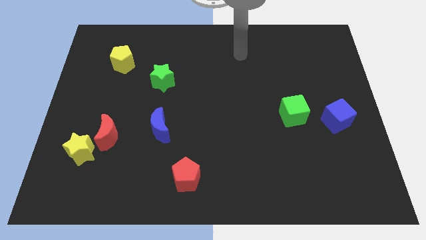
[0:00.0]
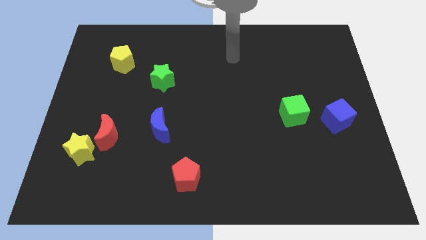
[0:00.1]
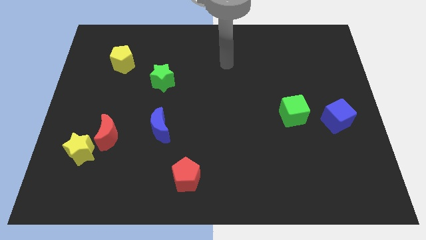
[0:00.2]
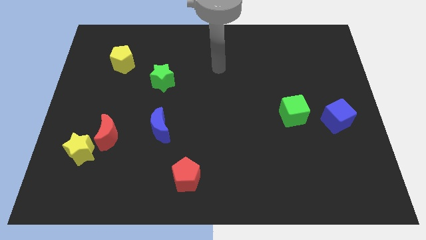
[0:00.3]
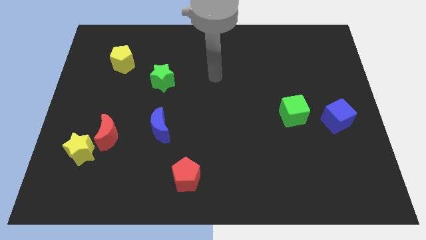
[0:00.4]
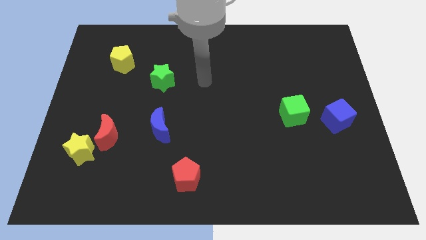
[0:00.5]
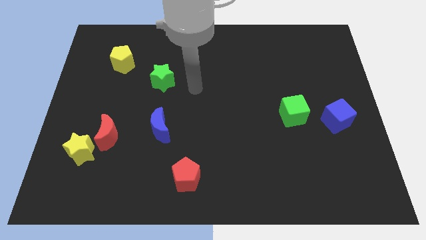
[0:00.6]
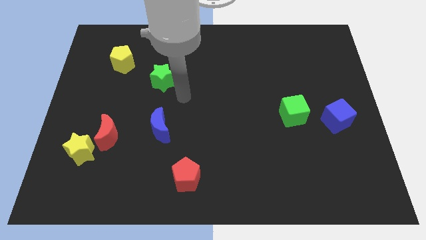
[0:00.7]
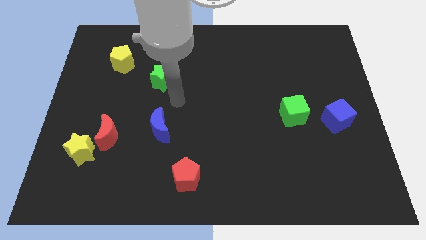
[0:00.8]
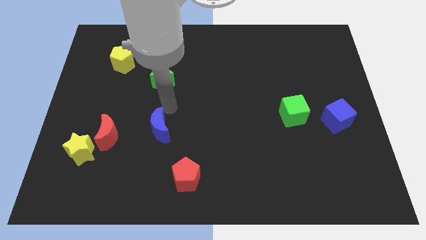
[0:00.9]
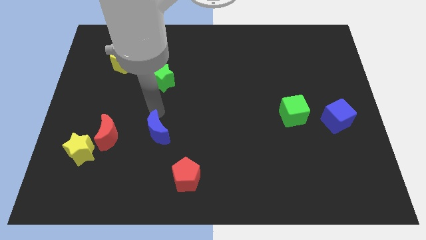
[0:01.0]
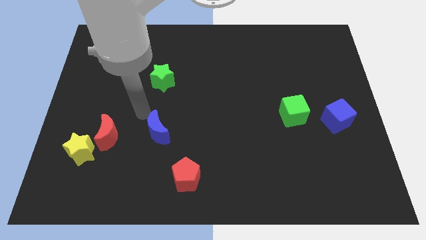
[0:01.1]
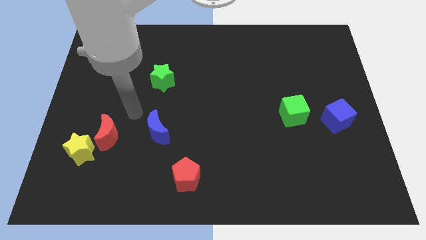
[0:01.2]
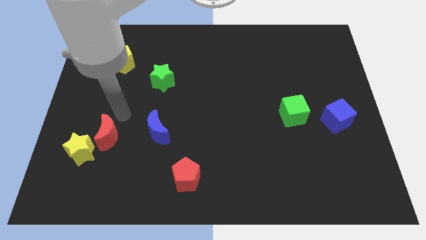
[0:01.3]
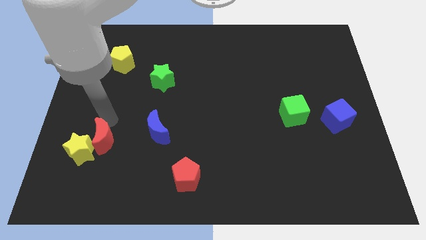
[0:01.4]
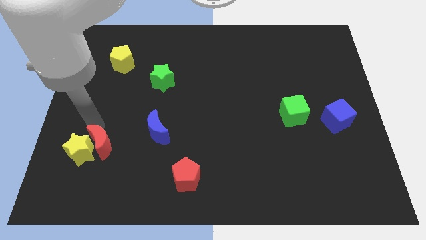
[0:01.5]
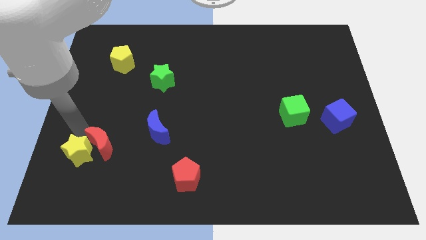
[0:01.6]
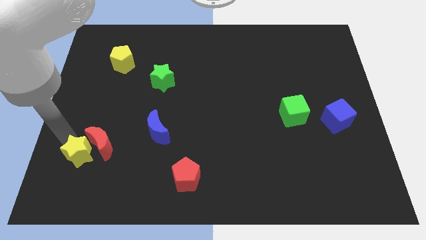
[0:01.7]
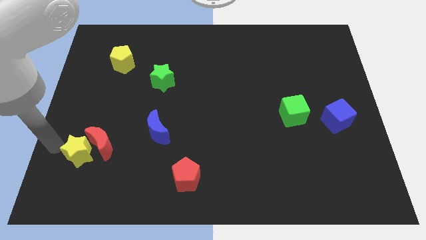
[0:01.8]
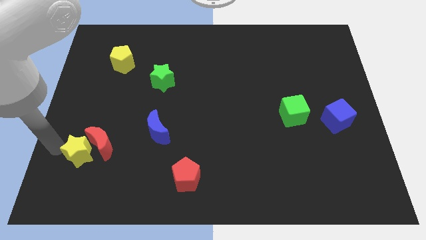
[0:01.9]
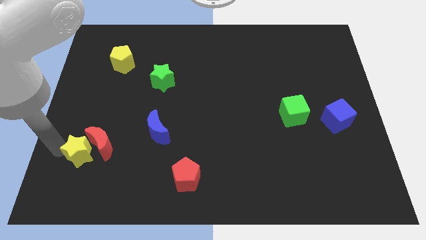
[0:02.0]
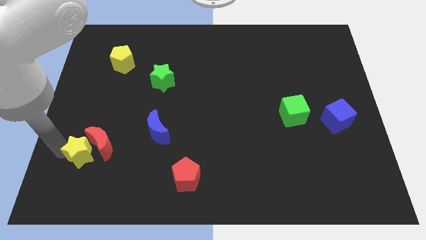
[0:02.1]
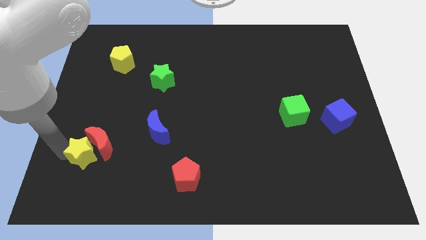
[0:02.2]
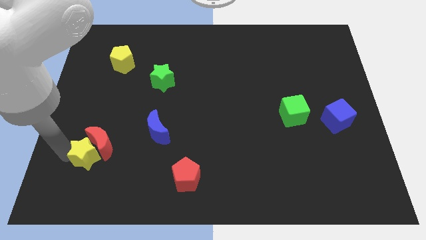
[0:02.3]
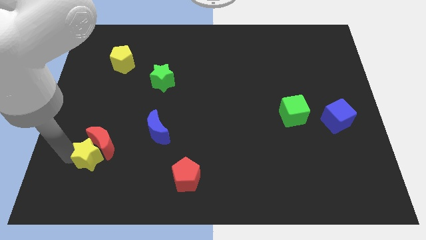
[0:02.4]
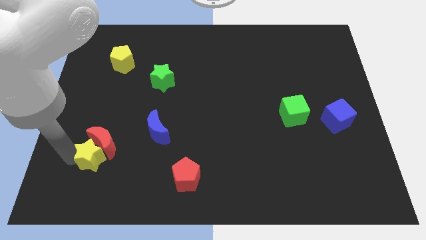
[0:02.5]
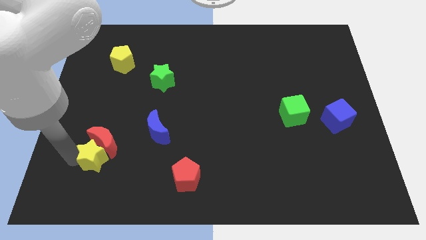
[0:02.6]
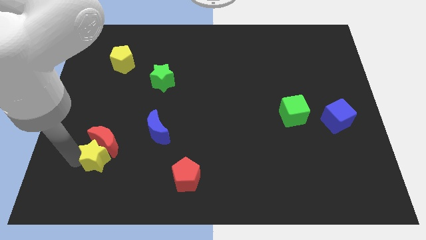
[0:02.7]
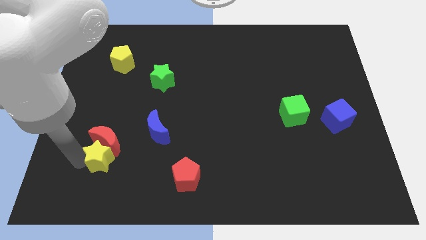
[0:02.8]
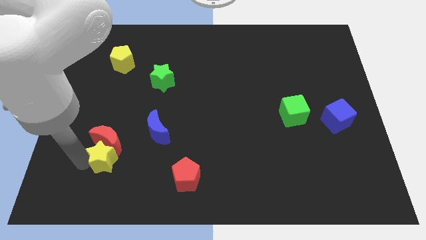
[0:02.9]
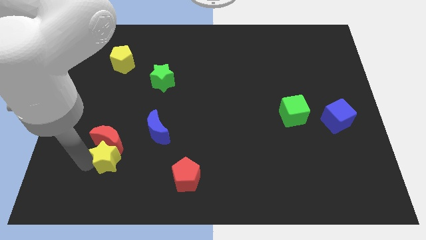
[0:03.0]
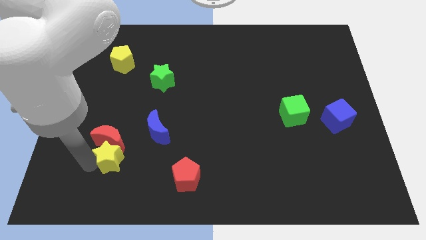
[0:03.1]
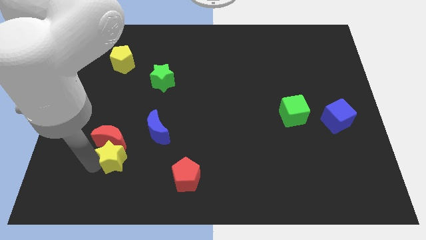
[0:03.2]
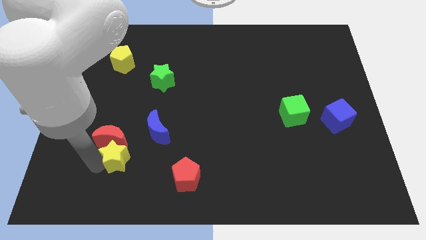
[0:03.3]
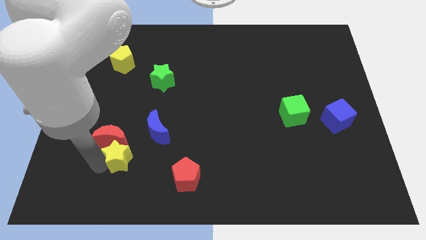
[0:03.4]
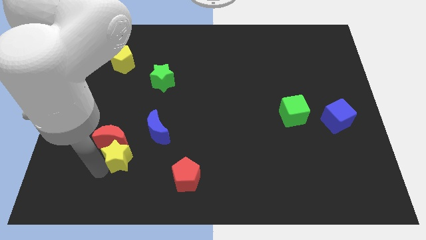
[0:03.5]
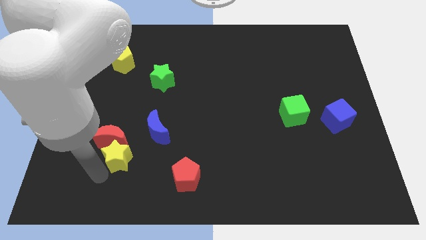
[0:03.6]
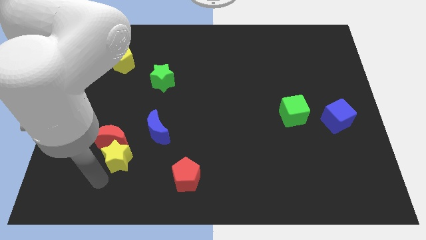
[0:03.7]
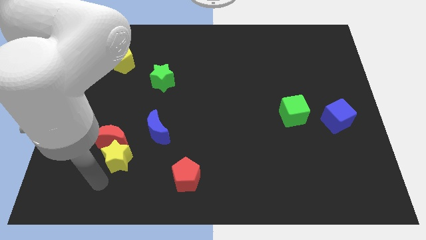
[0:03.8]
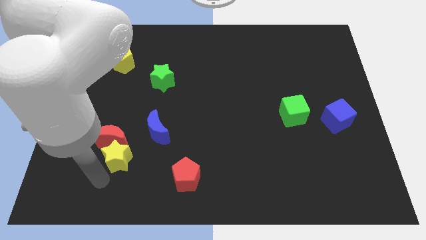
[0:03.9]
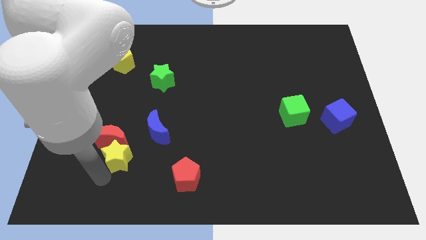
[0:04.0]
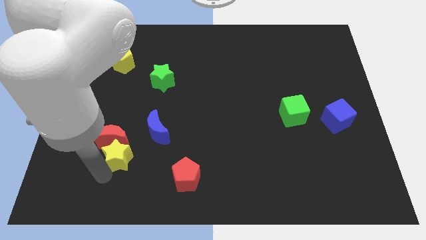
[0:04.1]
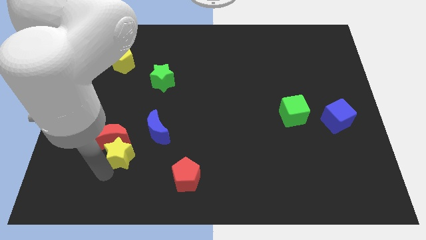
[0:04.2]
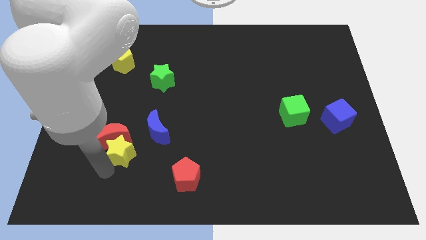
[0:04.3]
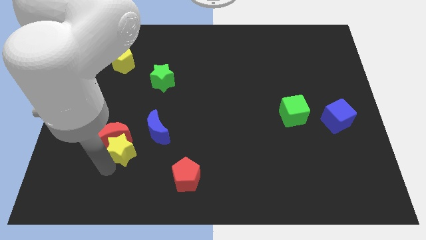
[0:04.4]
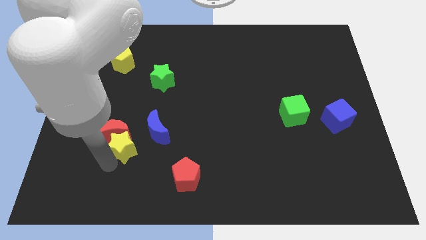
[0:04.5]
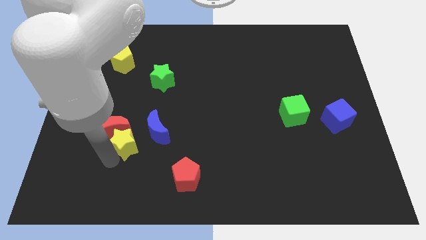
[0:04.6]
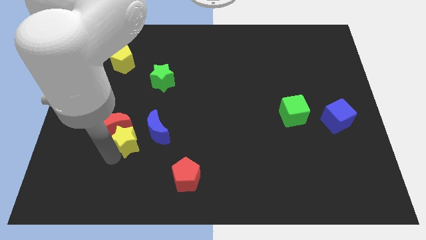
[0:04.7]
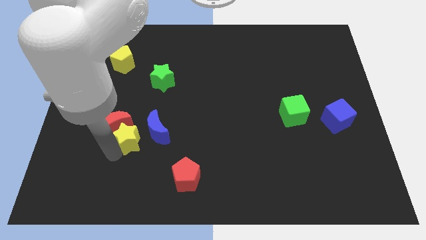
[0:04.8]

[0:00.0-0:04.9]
push the yellow star next to the blue moon

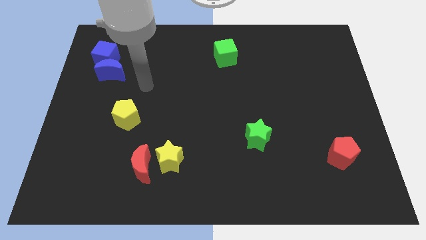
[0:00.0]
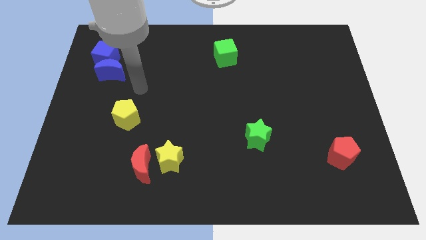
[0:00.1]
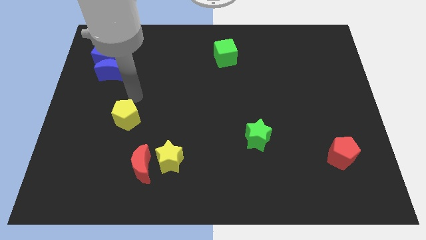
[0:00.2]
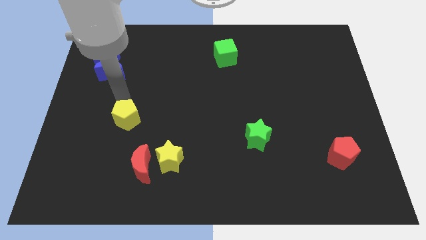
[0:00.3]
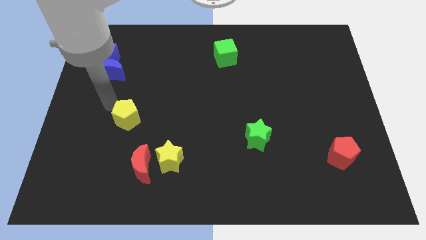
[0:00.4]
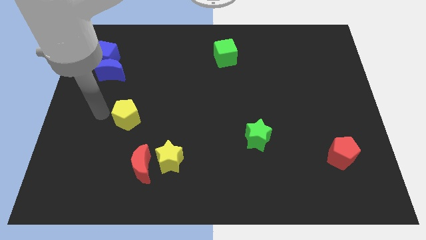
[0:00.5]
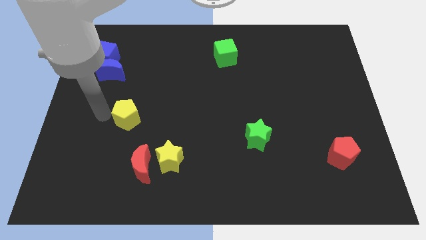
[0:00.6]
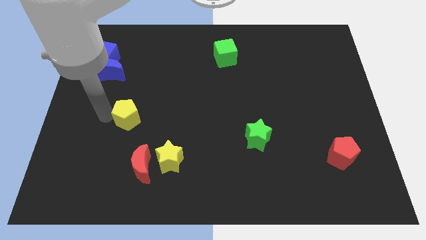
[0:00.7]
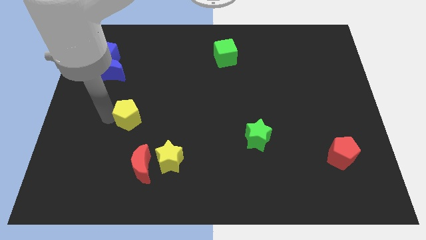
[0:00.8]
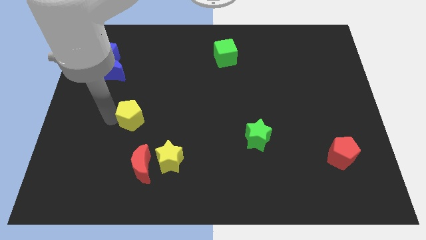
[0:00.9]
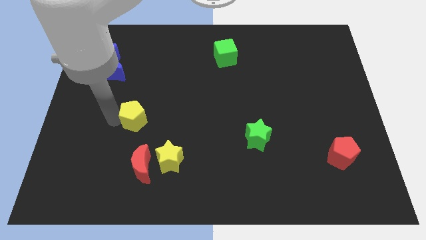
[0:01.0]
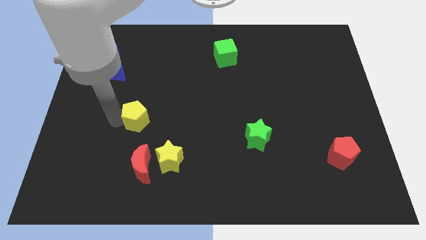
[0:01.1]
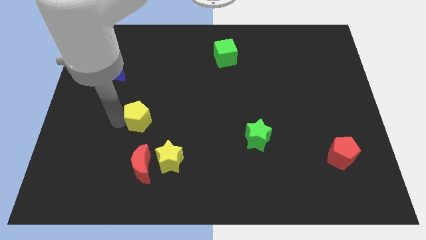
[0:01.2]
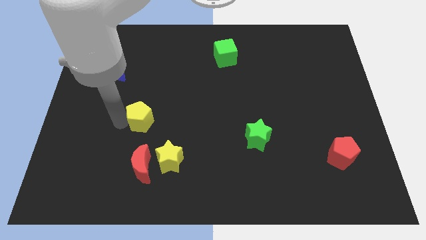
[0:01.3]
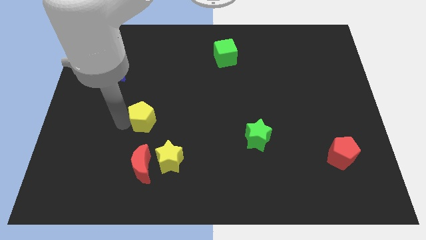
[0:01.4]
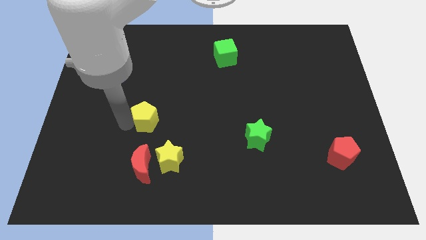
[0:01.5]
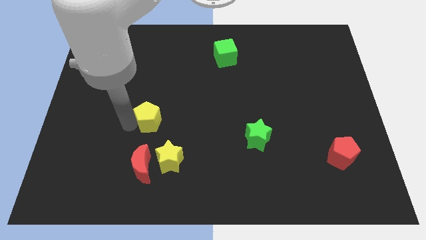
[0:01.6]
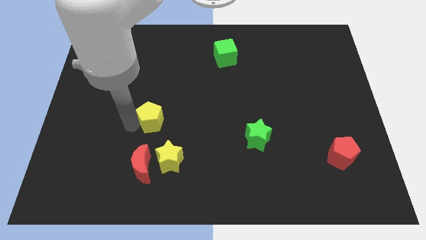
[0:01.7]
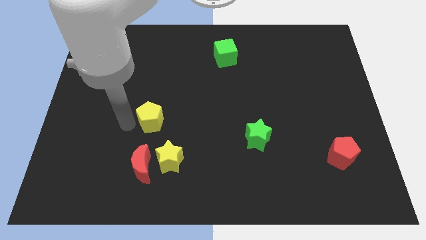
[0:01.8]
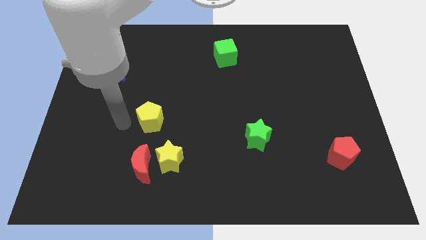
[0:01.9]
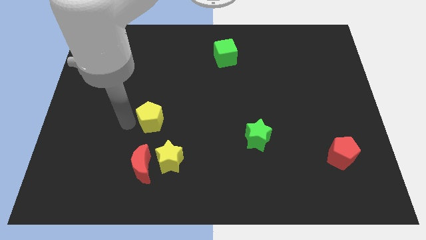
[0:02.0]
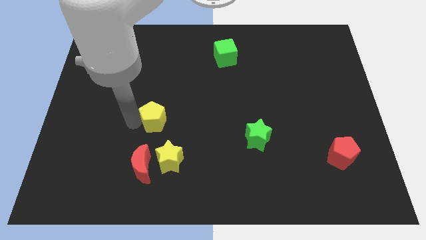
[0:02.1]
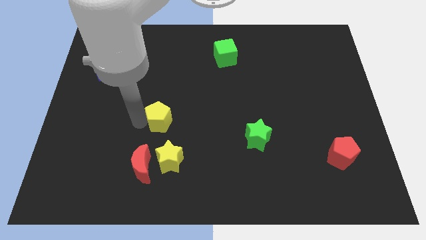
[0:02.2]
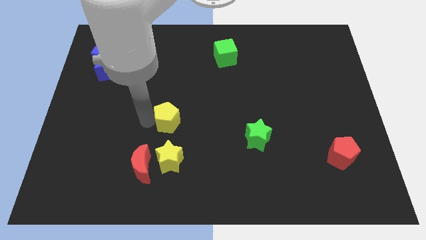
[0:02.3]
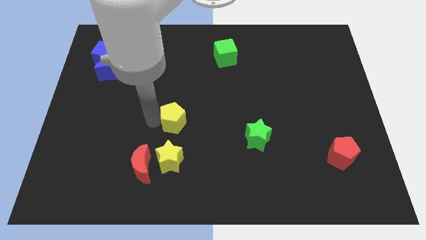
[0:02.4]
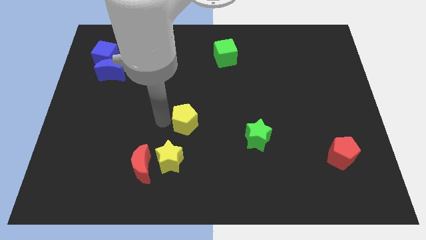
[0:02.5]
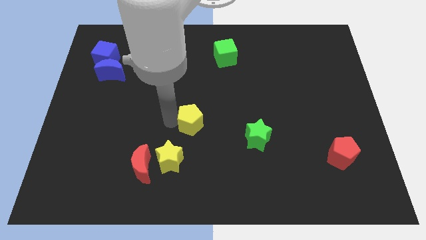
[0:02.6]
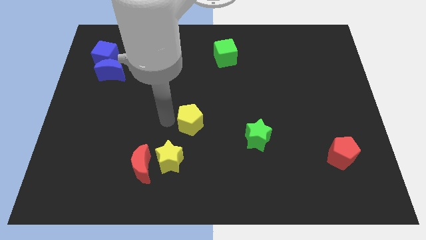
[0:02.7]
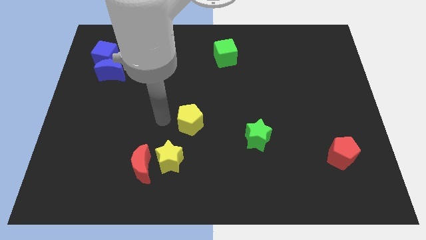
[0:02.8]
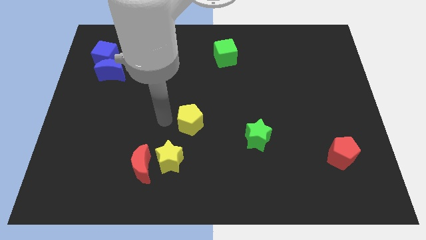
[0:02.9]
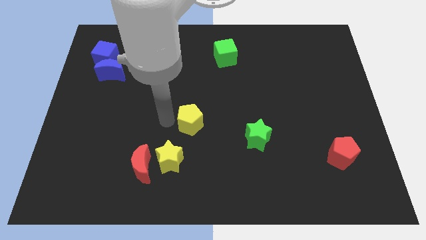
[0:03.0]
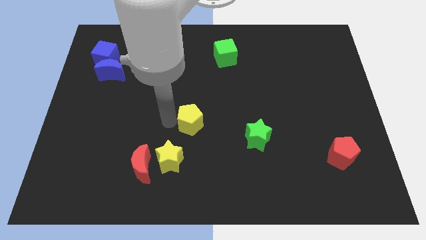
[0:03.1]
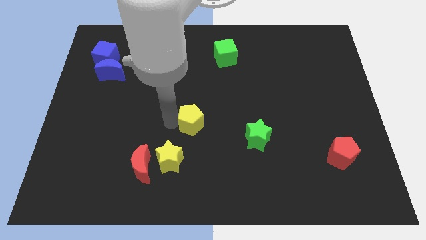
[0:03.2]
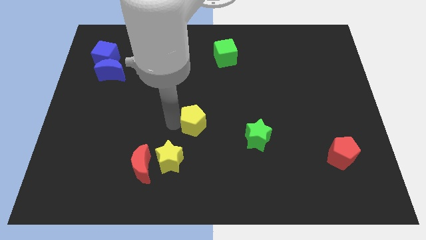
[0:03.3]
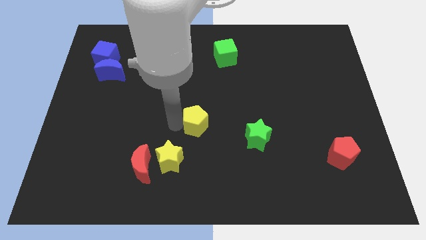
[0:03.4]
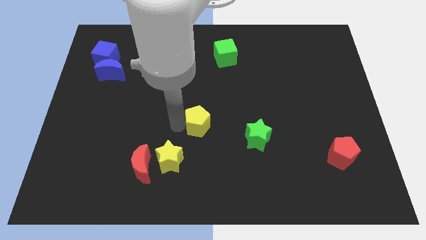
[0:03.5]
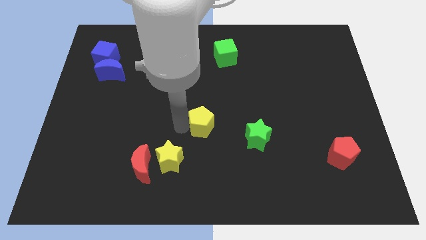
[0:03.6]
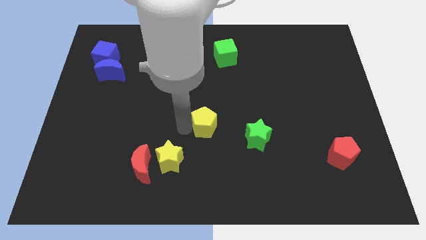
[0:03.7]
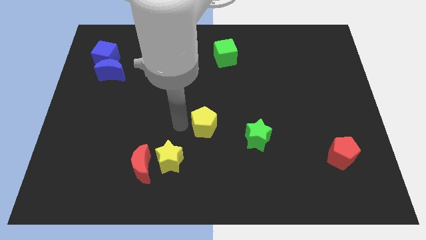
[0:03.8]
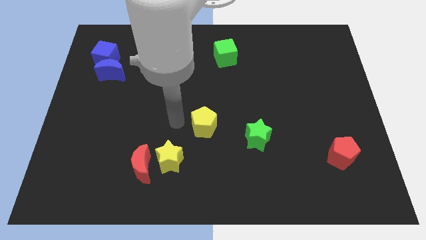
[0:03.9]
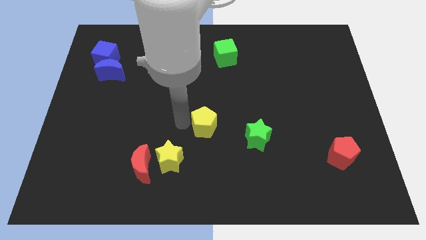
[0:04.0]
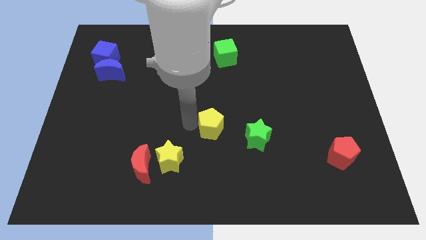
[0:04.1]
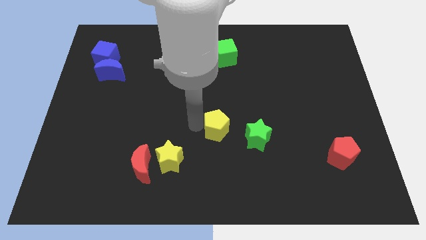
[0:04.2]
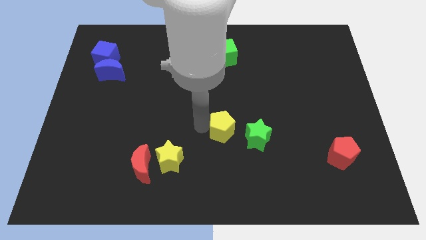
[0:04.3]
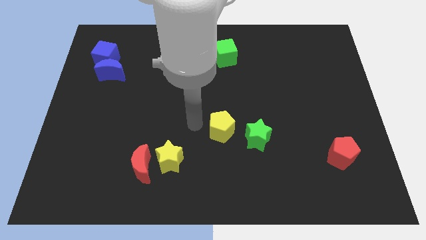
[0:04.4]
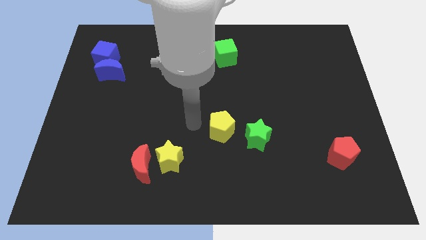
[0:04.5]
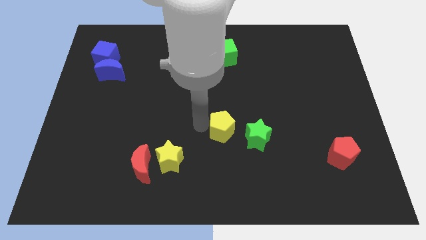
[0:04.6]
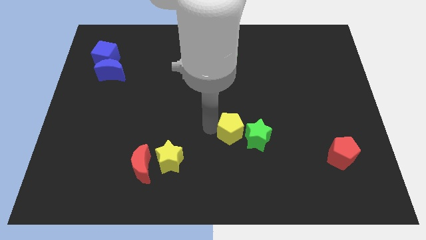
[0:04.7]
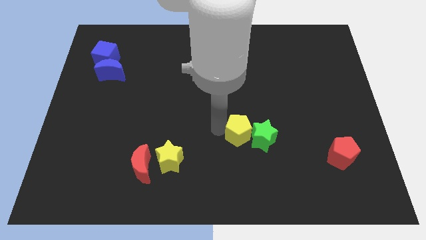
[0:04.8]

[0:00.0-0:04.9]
slide the yellow pentagon to the green star
